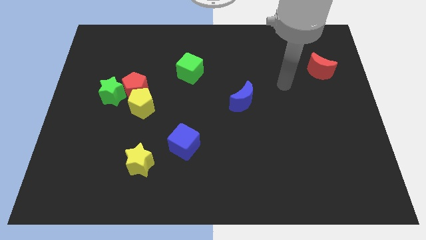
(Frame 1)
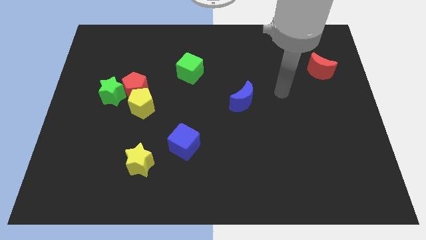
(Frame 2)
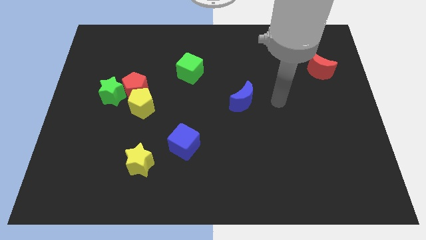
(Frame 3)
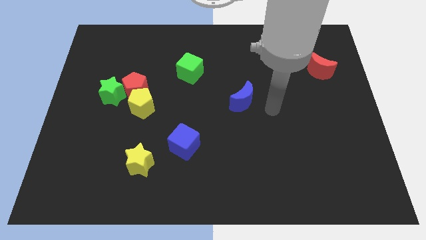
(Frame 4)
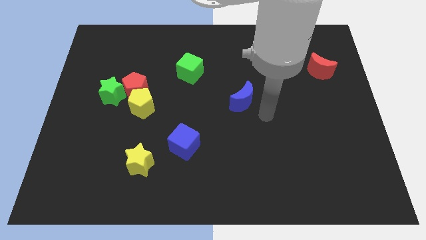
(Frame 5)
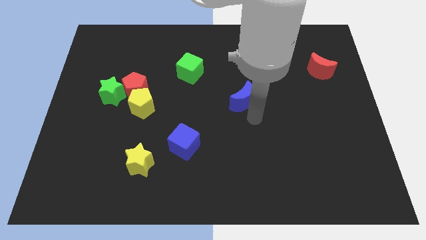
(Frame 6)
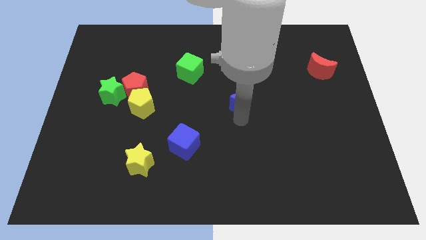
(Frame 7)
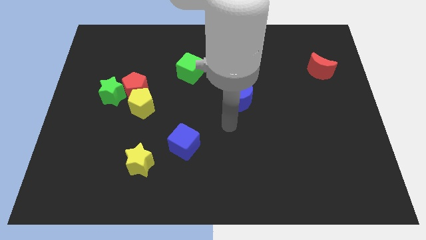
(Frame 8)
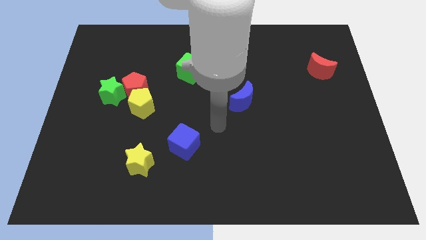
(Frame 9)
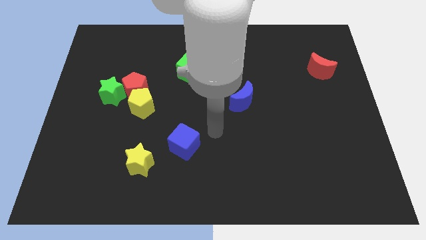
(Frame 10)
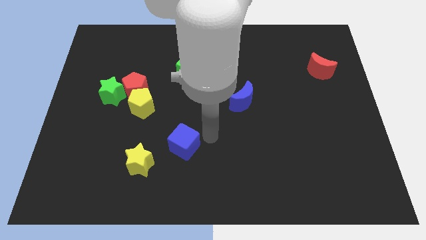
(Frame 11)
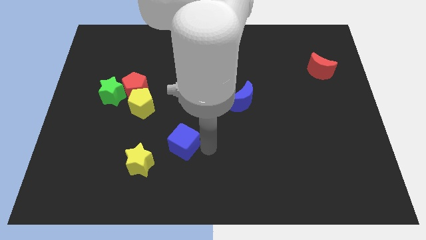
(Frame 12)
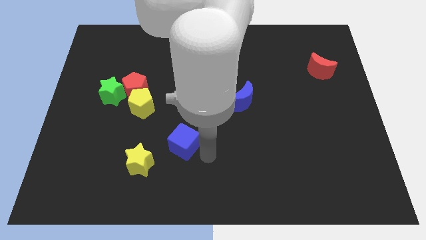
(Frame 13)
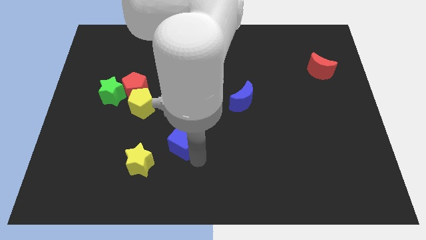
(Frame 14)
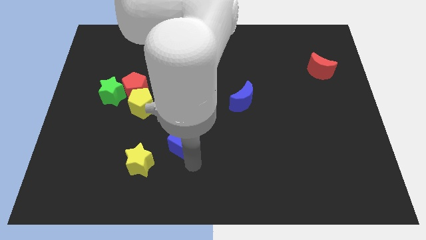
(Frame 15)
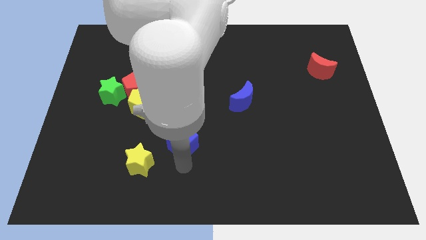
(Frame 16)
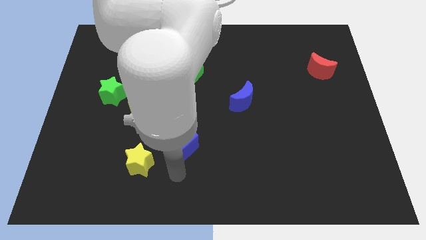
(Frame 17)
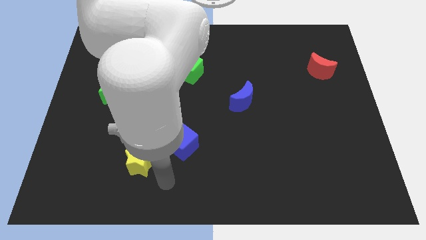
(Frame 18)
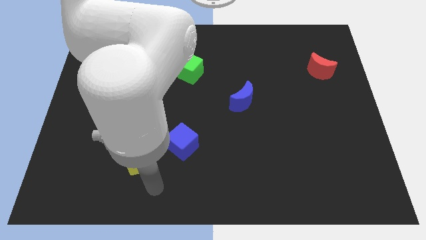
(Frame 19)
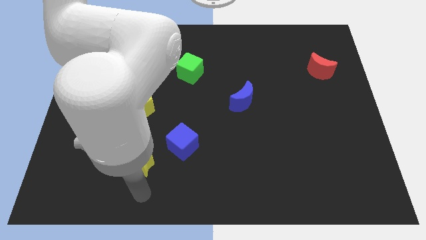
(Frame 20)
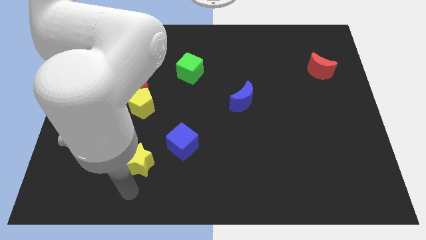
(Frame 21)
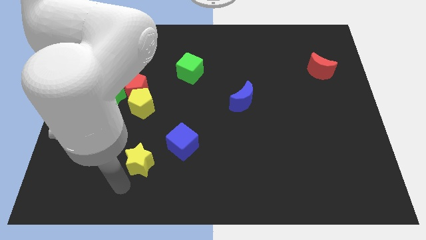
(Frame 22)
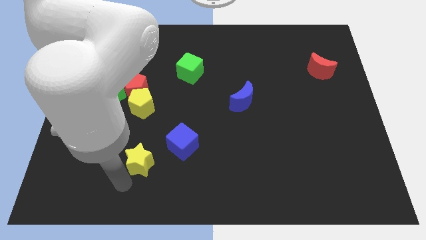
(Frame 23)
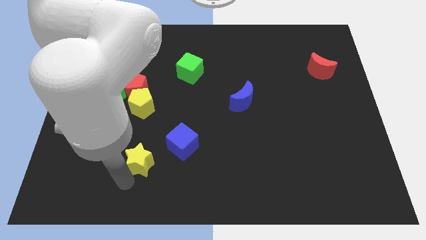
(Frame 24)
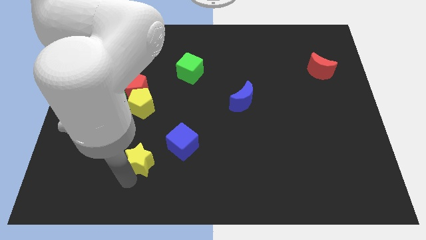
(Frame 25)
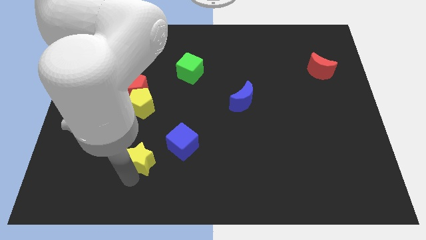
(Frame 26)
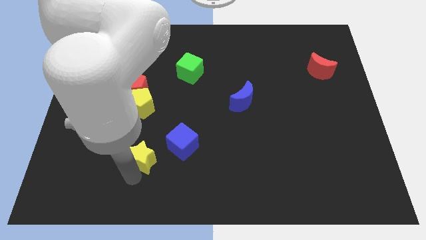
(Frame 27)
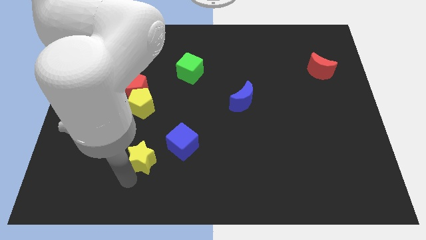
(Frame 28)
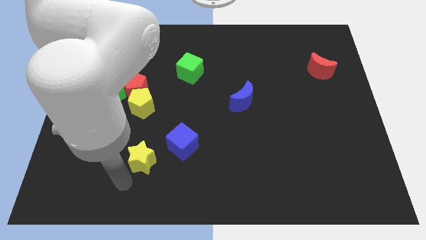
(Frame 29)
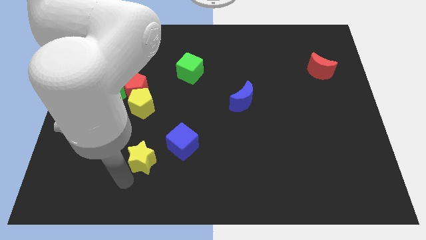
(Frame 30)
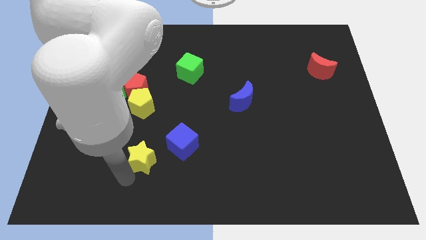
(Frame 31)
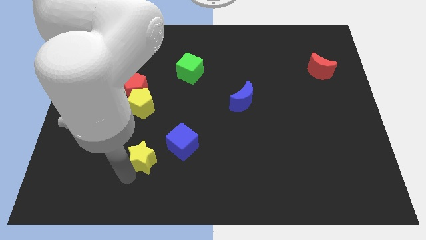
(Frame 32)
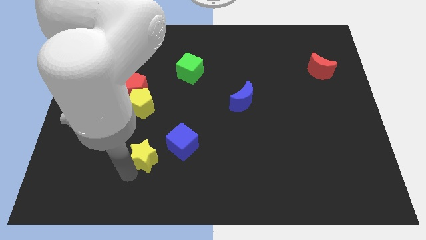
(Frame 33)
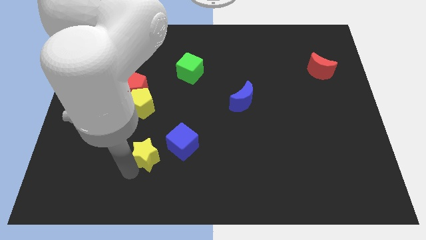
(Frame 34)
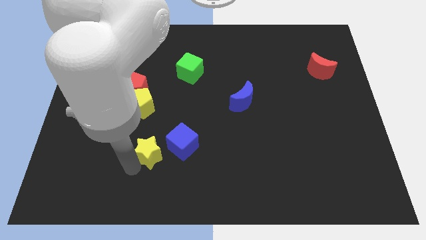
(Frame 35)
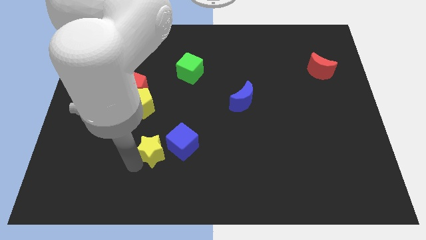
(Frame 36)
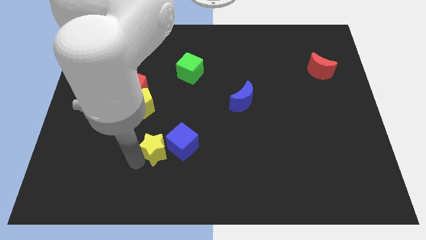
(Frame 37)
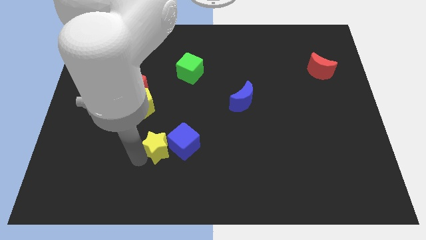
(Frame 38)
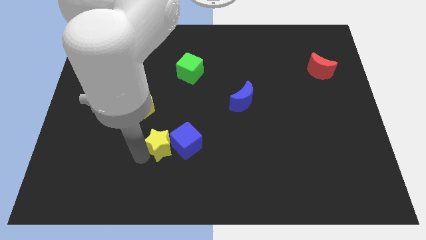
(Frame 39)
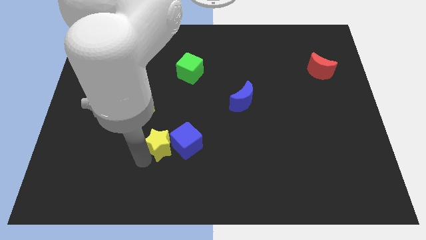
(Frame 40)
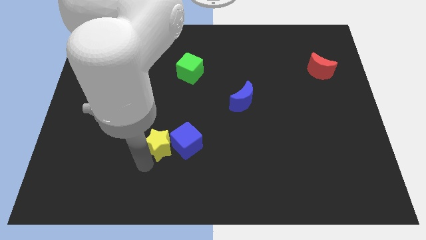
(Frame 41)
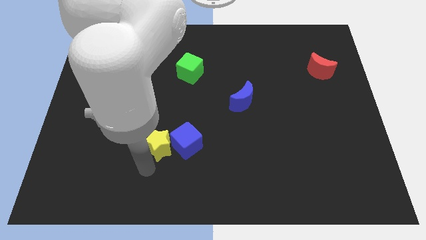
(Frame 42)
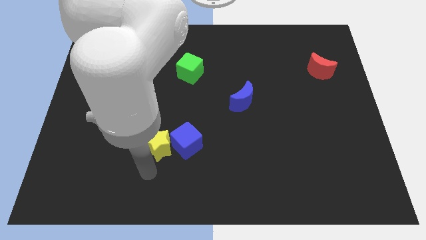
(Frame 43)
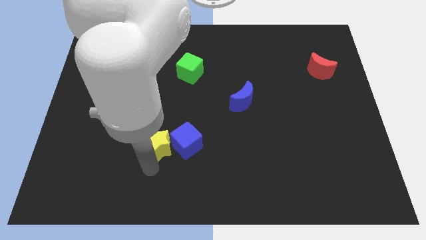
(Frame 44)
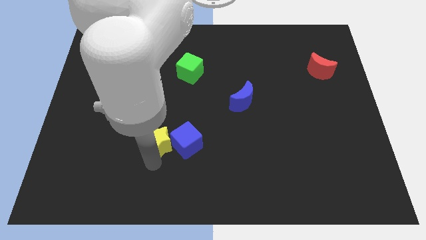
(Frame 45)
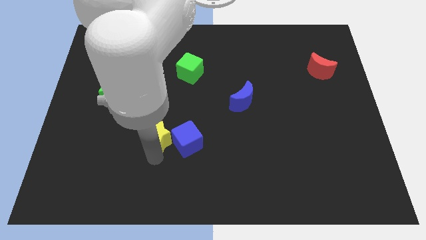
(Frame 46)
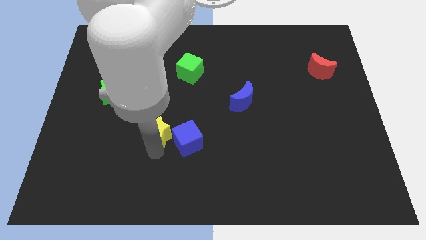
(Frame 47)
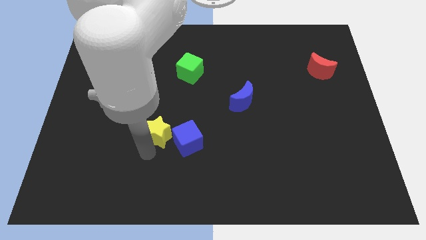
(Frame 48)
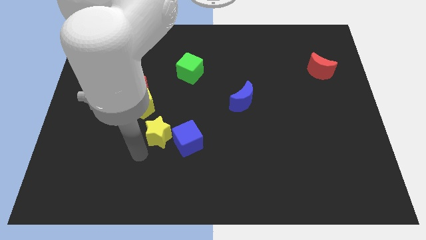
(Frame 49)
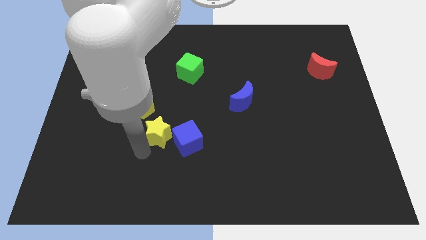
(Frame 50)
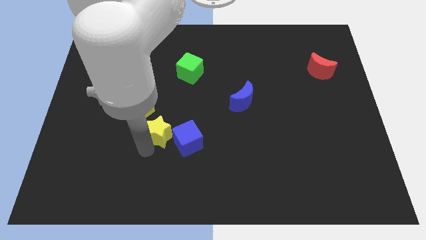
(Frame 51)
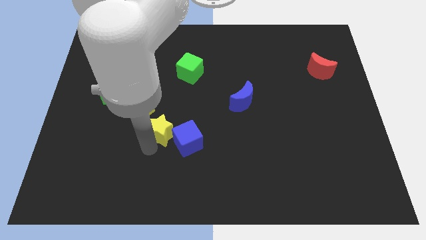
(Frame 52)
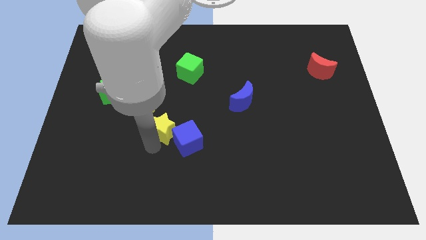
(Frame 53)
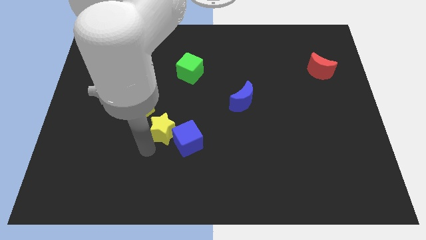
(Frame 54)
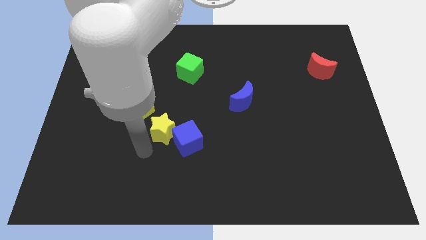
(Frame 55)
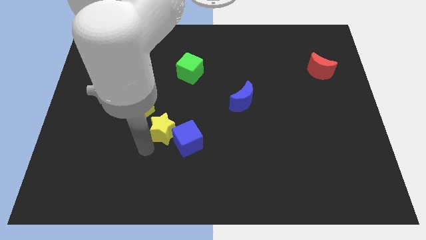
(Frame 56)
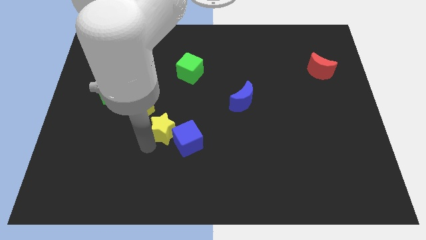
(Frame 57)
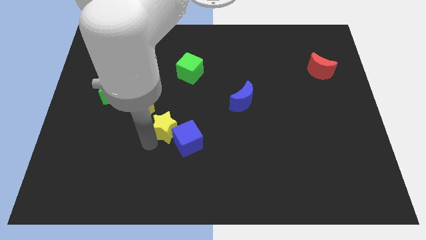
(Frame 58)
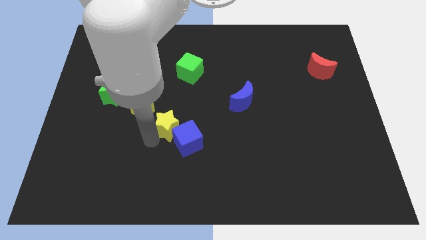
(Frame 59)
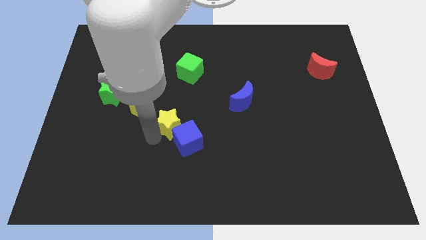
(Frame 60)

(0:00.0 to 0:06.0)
put the yellow star to the center

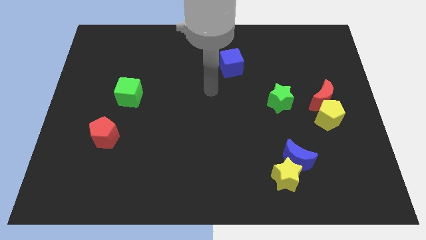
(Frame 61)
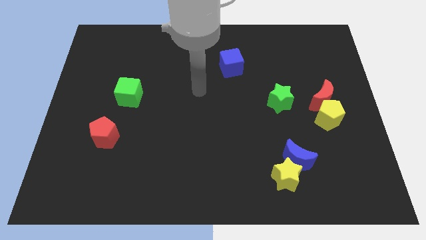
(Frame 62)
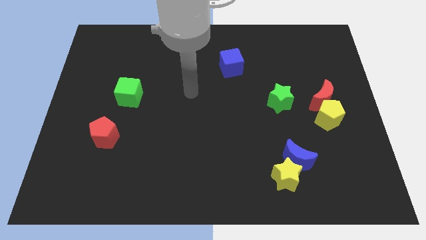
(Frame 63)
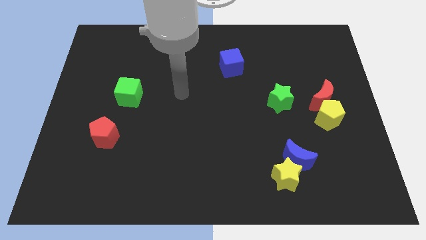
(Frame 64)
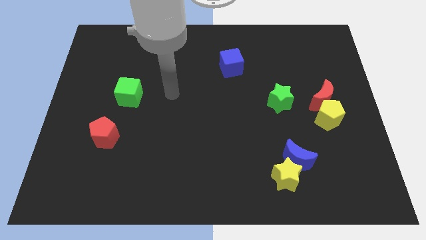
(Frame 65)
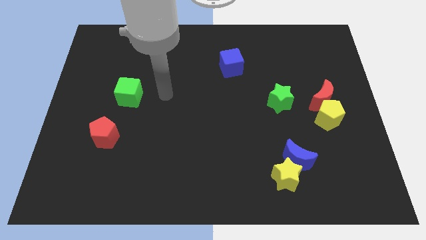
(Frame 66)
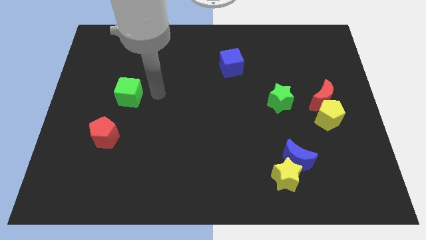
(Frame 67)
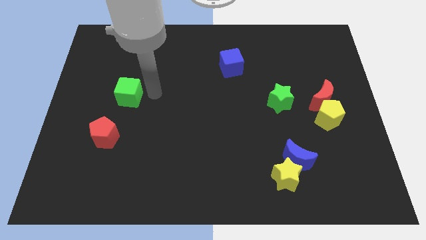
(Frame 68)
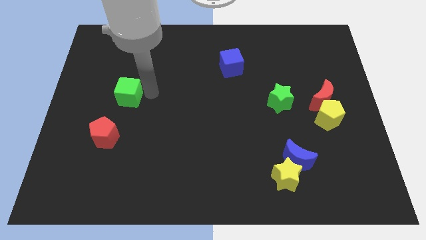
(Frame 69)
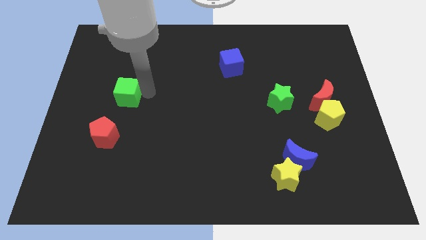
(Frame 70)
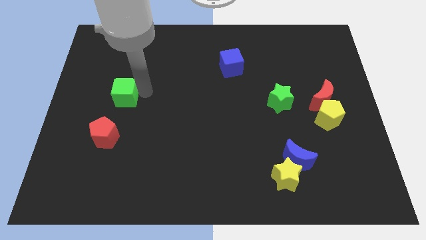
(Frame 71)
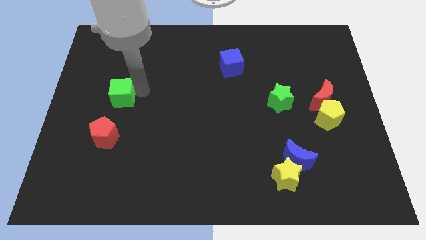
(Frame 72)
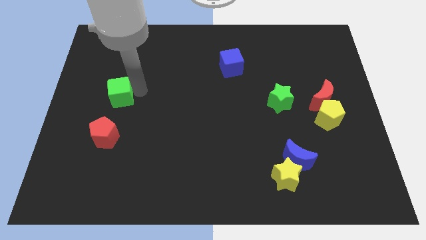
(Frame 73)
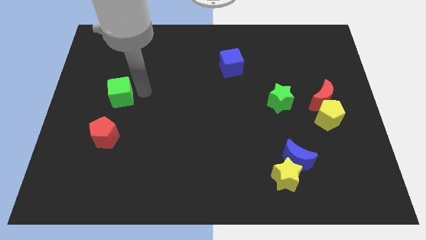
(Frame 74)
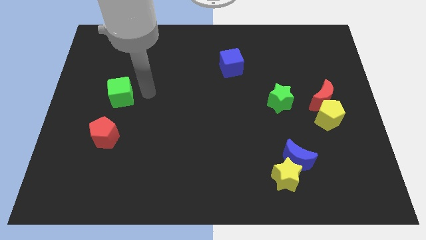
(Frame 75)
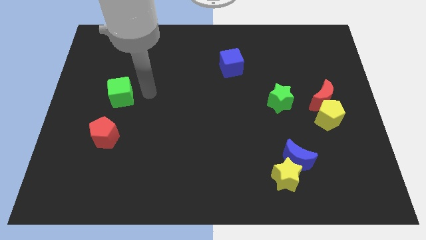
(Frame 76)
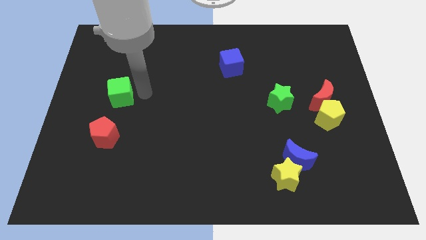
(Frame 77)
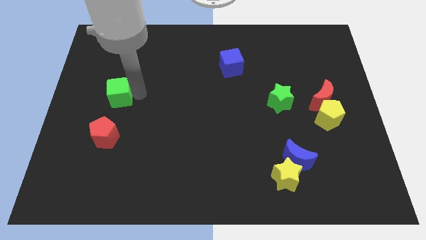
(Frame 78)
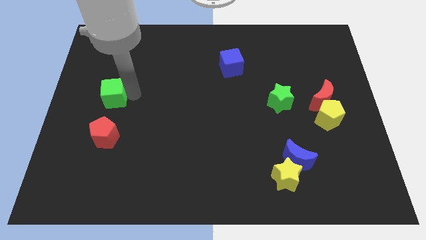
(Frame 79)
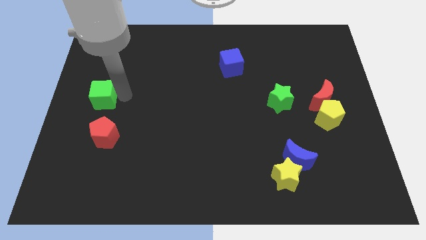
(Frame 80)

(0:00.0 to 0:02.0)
slide the green cube to the left side
